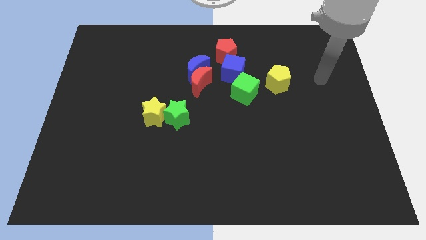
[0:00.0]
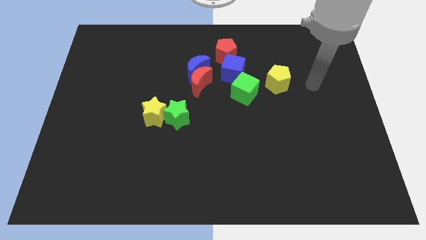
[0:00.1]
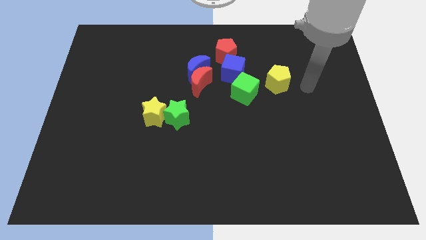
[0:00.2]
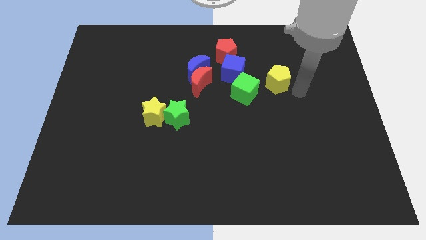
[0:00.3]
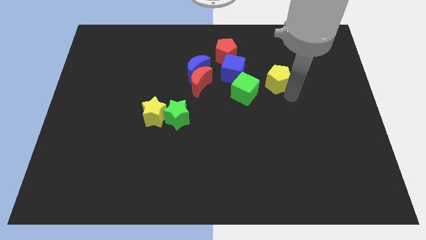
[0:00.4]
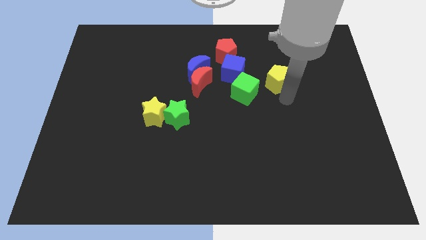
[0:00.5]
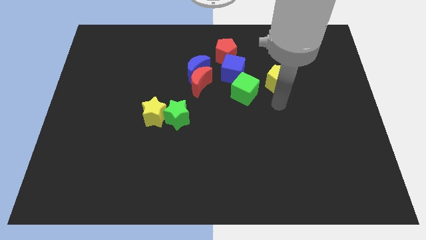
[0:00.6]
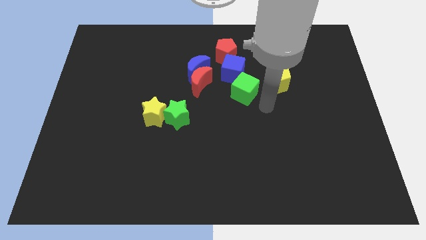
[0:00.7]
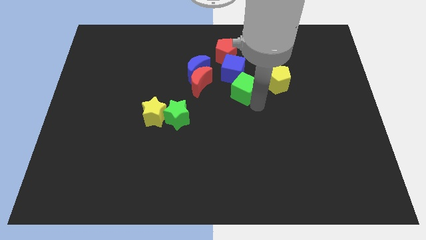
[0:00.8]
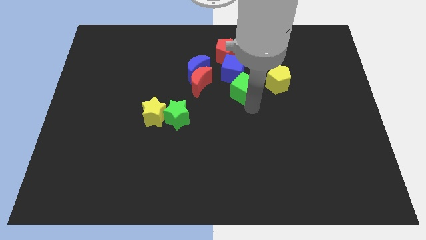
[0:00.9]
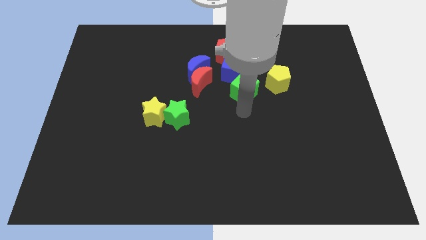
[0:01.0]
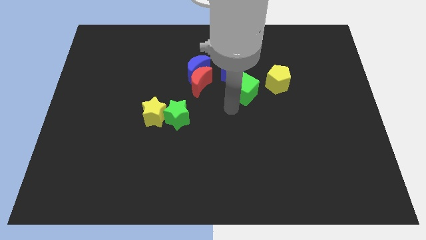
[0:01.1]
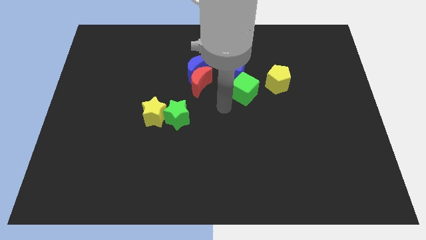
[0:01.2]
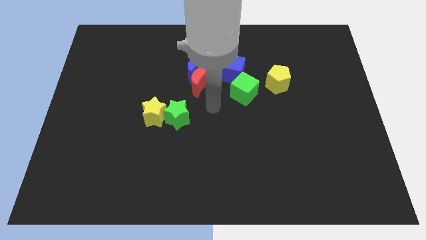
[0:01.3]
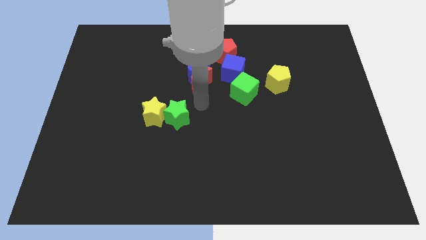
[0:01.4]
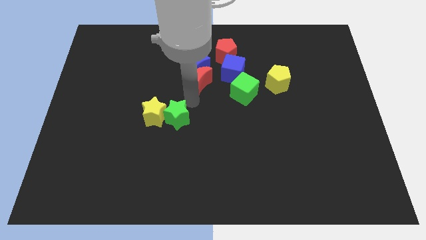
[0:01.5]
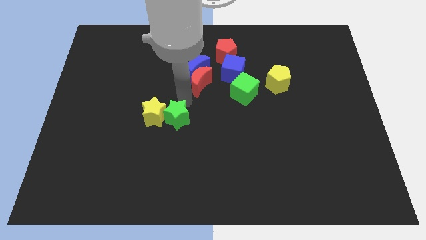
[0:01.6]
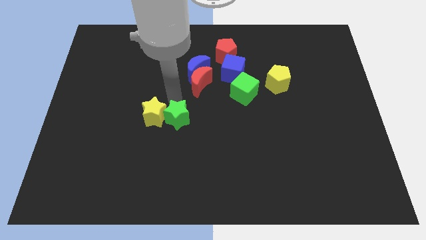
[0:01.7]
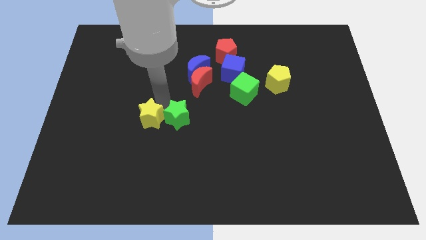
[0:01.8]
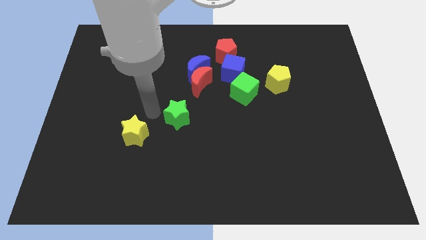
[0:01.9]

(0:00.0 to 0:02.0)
move the green star away from the yellow star

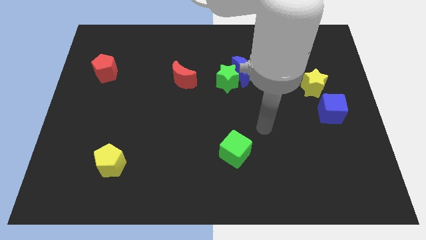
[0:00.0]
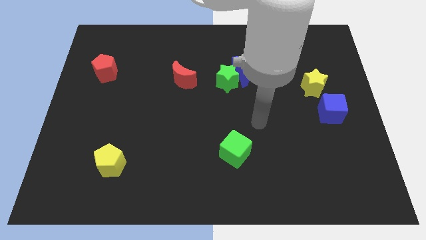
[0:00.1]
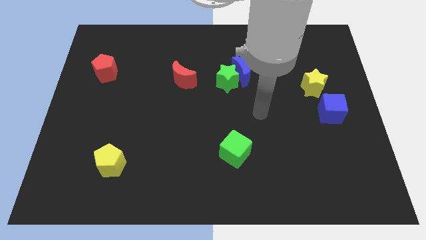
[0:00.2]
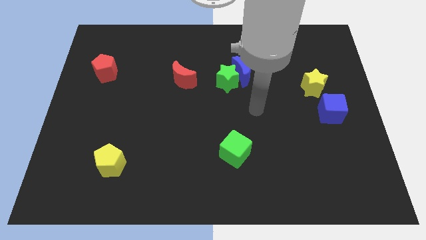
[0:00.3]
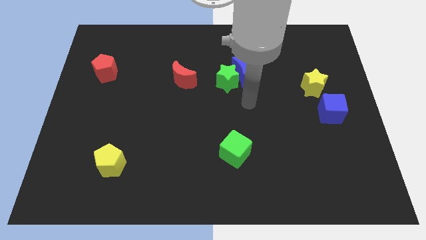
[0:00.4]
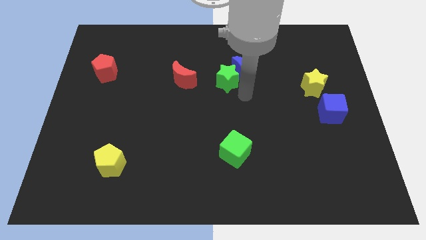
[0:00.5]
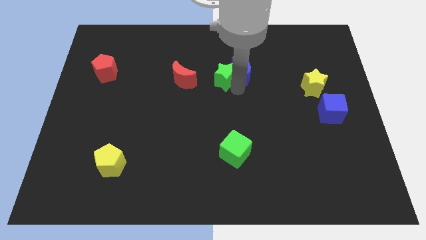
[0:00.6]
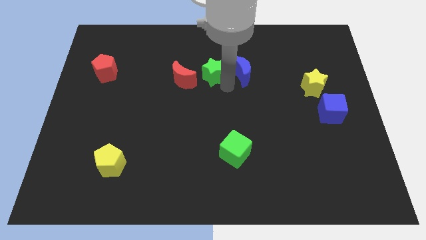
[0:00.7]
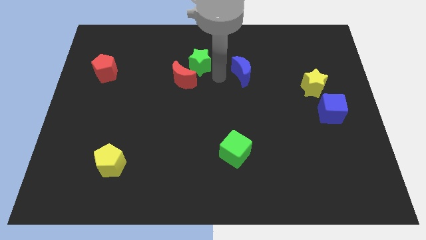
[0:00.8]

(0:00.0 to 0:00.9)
pull the blue moon apart from the green star

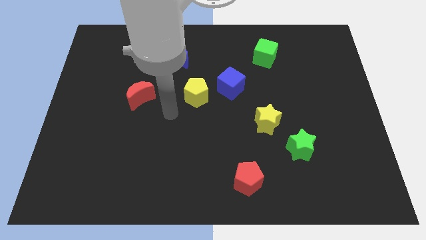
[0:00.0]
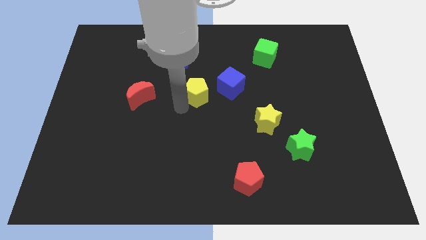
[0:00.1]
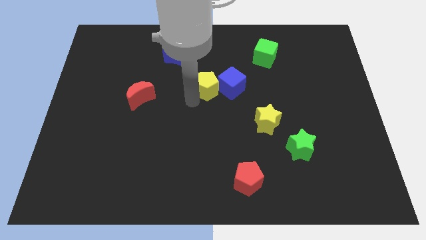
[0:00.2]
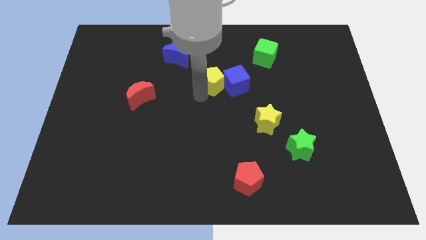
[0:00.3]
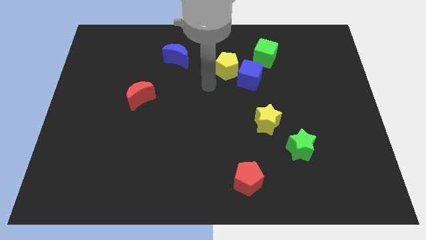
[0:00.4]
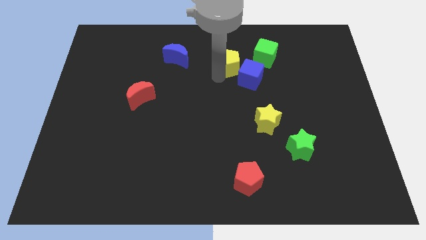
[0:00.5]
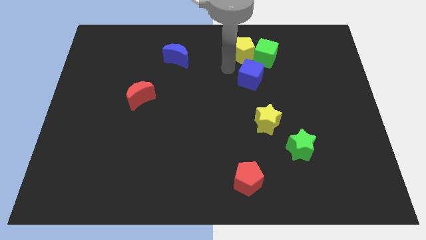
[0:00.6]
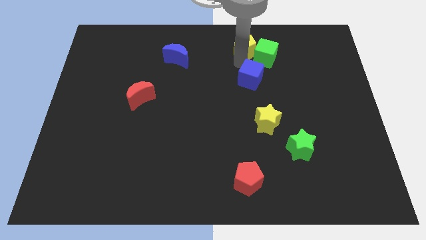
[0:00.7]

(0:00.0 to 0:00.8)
pull the blue cube apart from the yellow pentagon

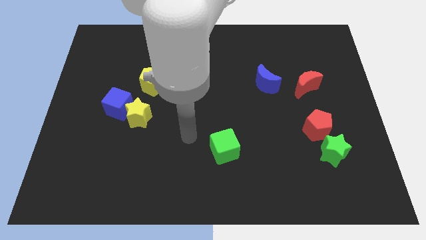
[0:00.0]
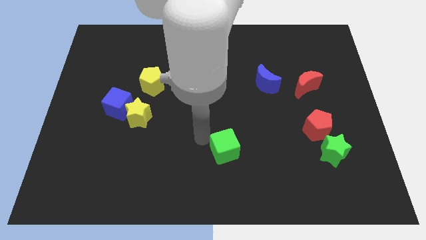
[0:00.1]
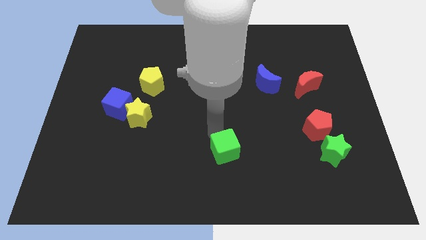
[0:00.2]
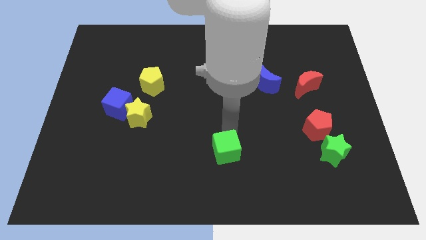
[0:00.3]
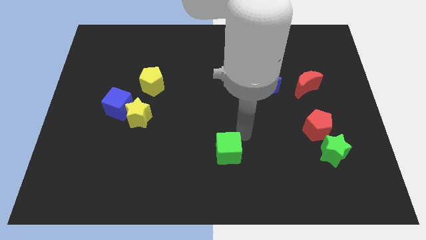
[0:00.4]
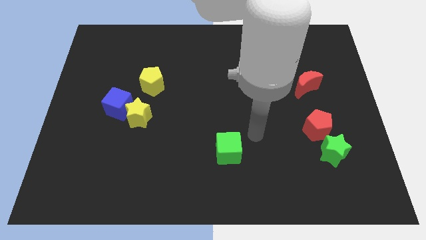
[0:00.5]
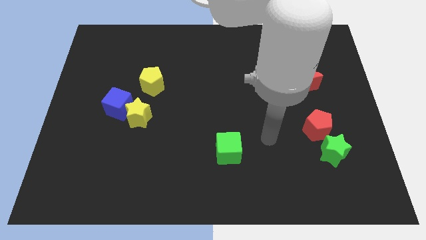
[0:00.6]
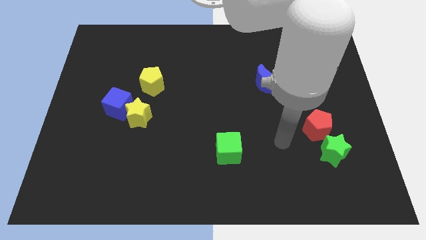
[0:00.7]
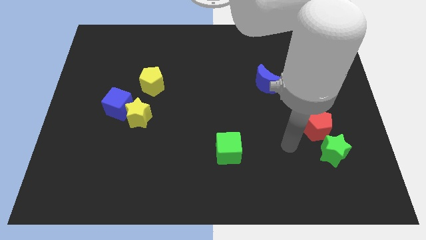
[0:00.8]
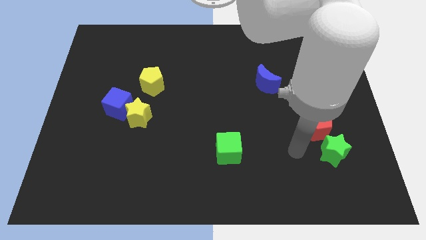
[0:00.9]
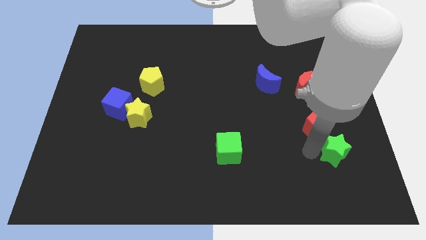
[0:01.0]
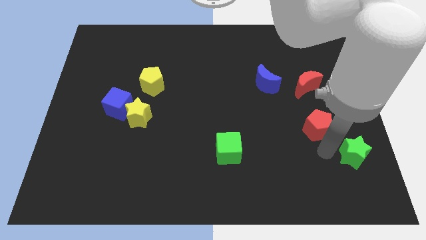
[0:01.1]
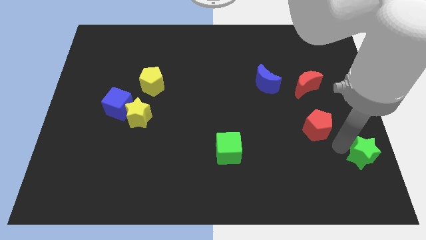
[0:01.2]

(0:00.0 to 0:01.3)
separate the red pentagon from the green star

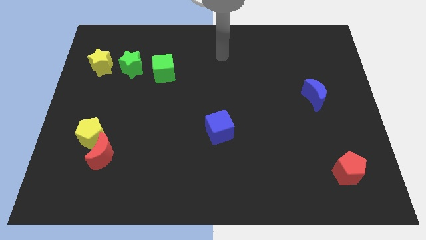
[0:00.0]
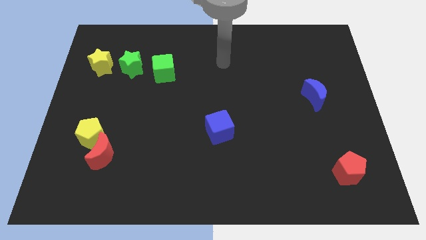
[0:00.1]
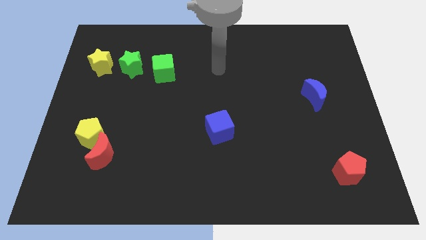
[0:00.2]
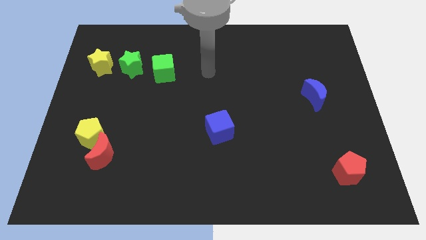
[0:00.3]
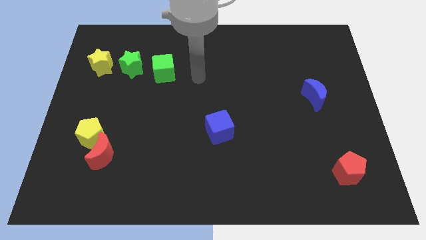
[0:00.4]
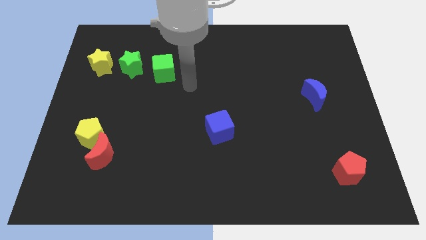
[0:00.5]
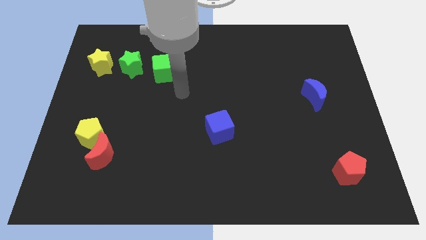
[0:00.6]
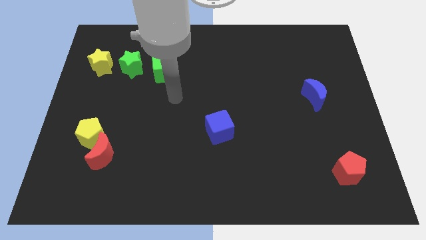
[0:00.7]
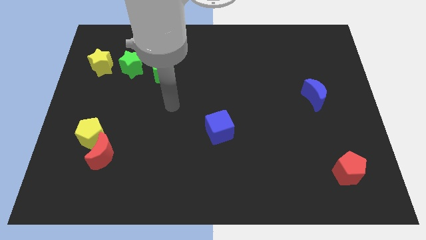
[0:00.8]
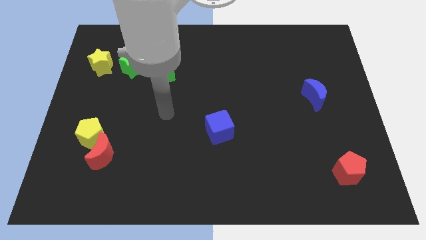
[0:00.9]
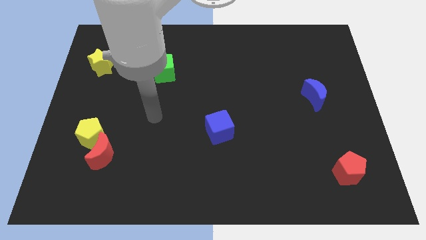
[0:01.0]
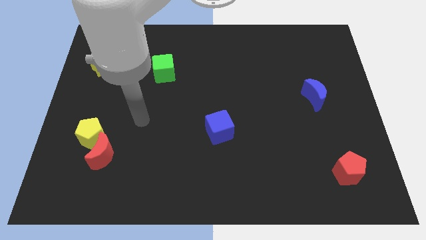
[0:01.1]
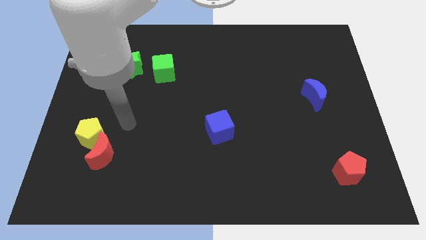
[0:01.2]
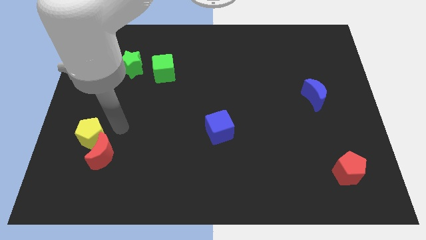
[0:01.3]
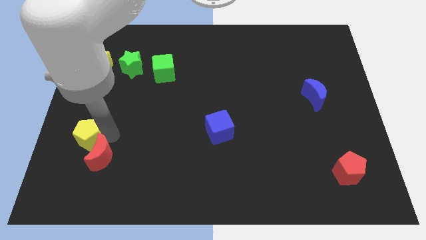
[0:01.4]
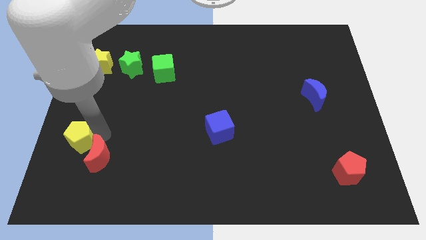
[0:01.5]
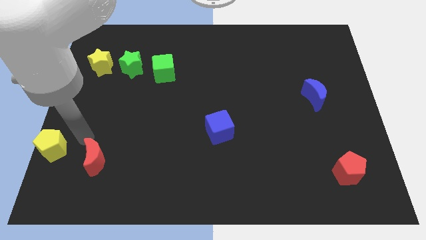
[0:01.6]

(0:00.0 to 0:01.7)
separate the red moon from the yellow pentagon

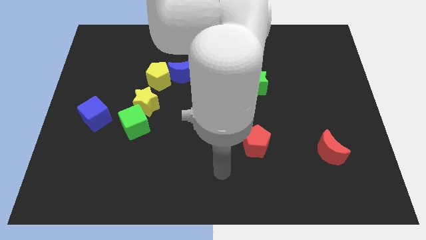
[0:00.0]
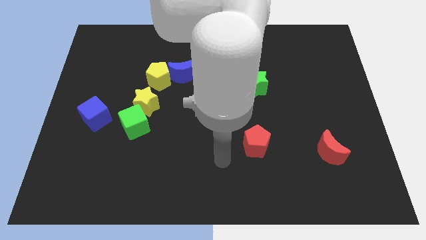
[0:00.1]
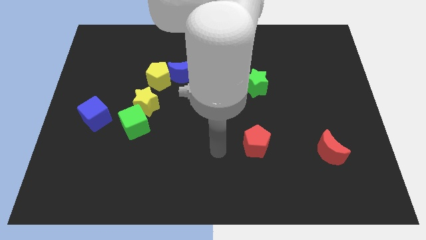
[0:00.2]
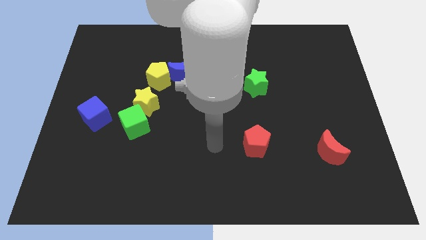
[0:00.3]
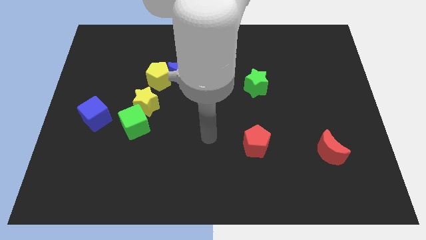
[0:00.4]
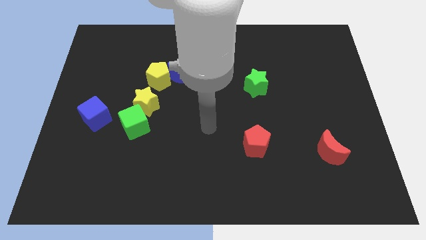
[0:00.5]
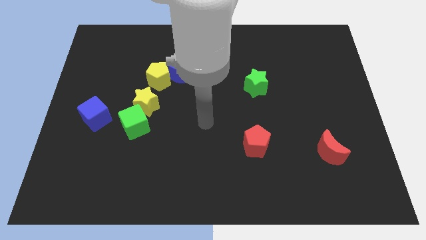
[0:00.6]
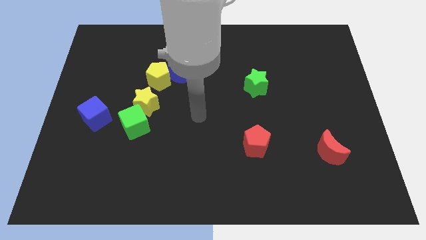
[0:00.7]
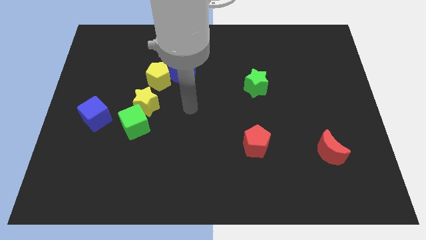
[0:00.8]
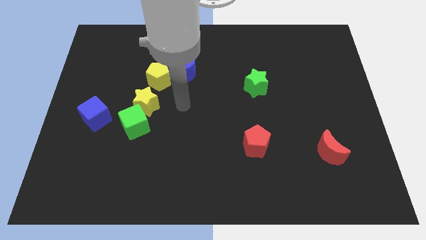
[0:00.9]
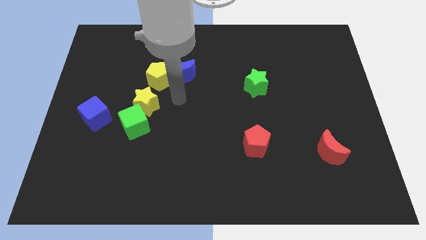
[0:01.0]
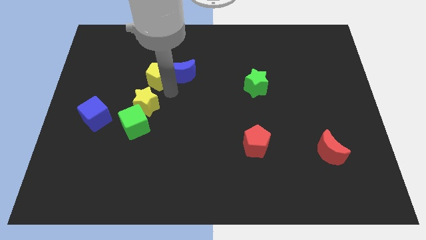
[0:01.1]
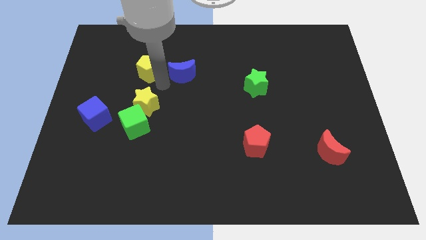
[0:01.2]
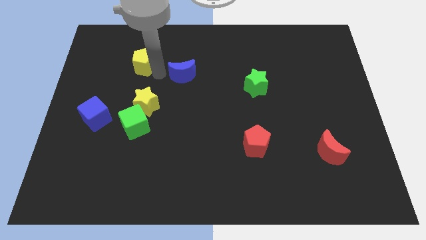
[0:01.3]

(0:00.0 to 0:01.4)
move the blue moon away from the yellow pentagon

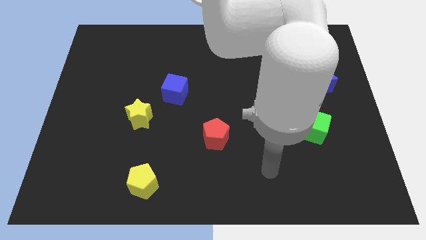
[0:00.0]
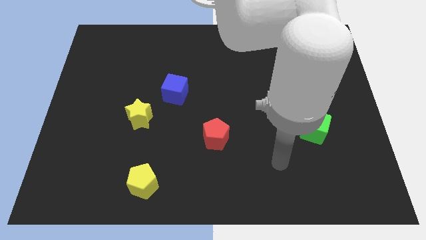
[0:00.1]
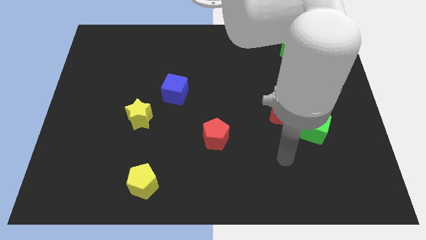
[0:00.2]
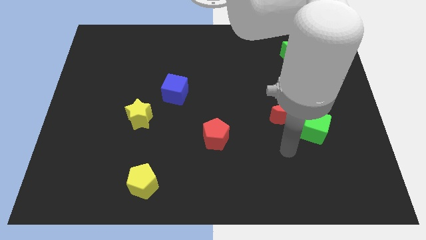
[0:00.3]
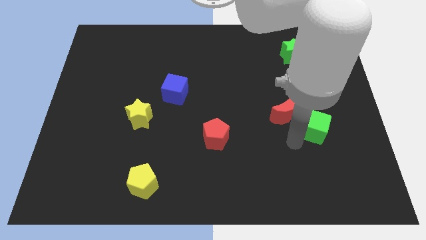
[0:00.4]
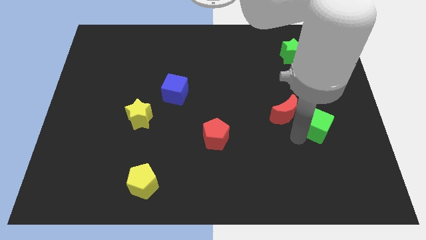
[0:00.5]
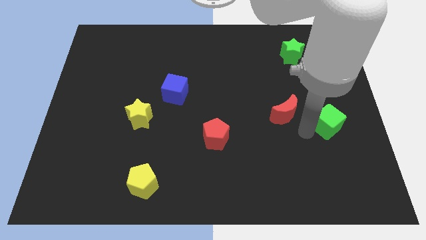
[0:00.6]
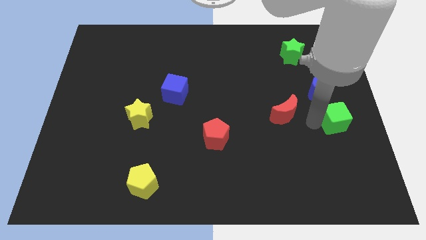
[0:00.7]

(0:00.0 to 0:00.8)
move the red moon away from the green cube

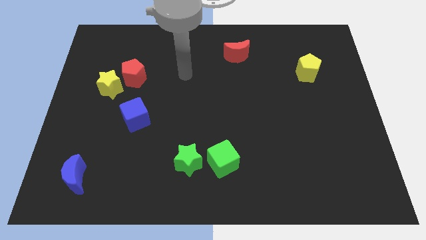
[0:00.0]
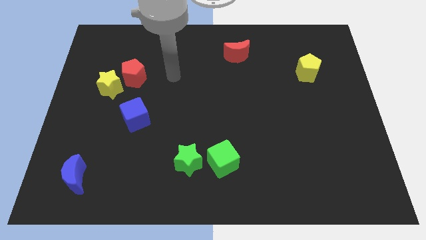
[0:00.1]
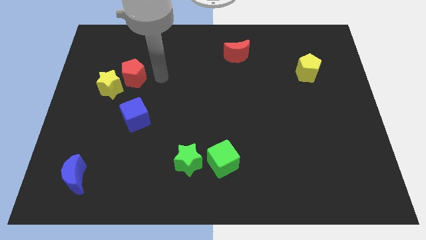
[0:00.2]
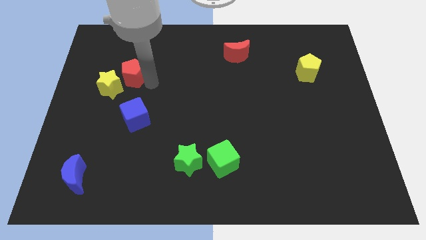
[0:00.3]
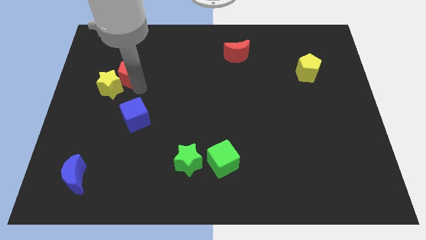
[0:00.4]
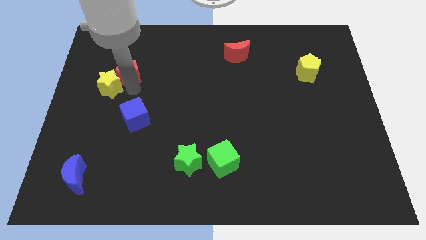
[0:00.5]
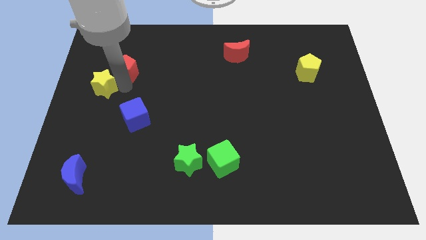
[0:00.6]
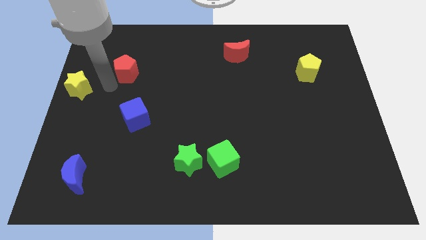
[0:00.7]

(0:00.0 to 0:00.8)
move the red pentagon away from the yellow star
